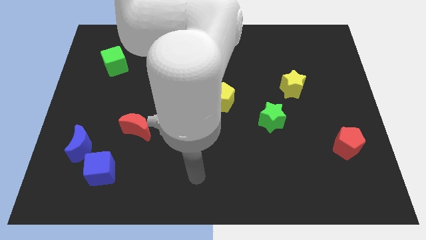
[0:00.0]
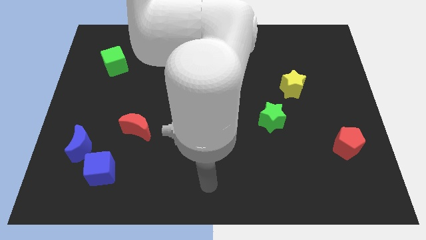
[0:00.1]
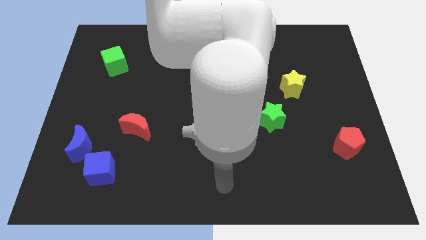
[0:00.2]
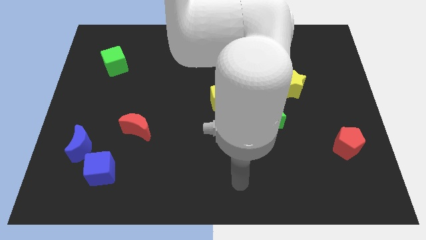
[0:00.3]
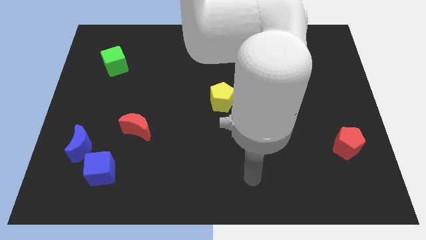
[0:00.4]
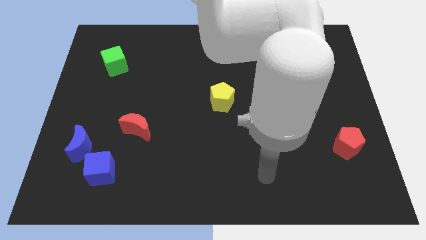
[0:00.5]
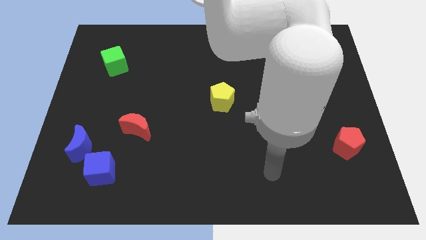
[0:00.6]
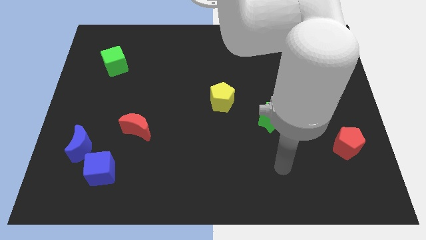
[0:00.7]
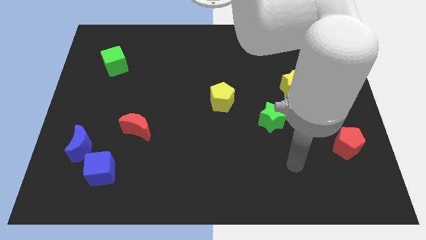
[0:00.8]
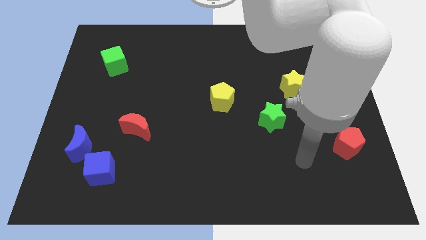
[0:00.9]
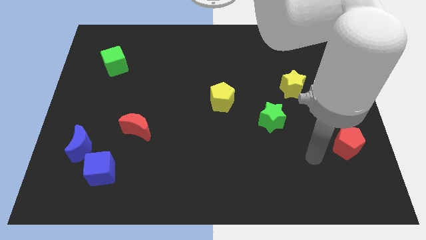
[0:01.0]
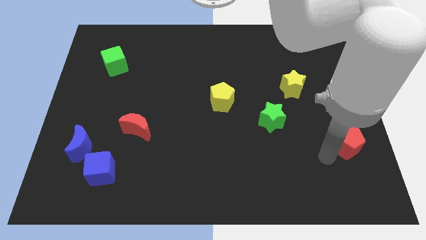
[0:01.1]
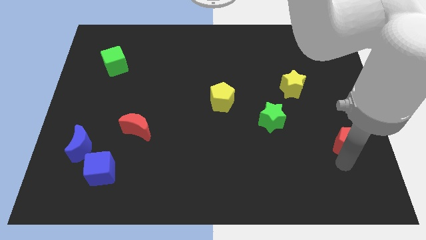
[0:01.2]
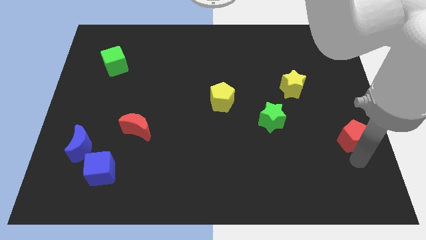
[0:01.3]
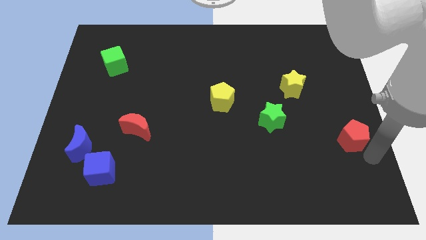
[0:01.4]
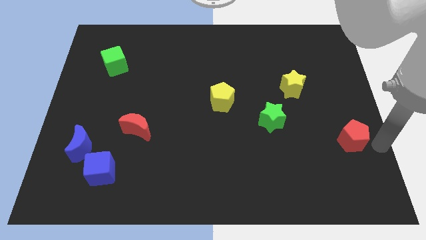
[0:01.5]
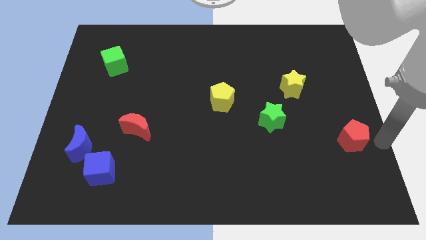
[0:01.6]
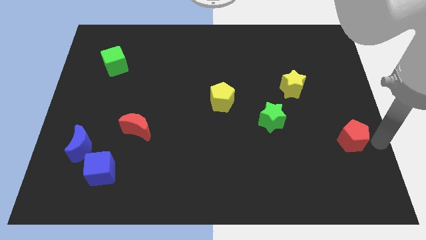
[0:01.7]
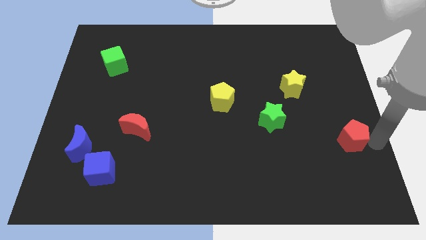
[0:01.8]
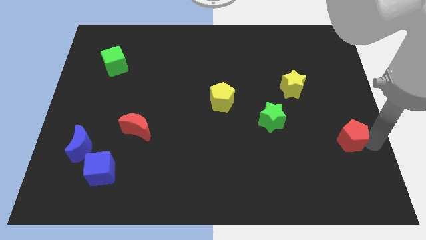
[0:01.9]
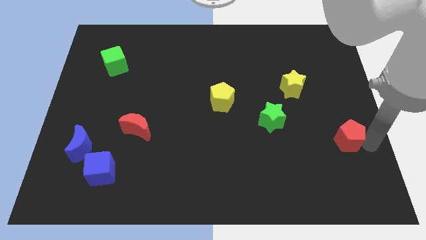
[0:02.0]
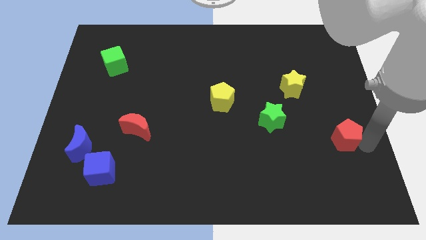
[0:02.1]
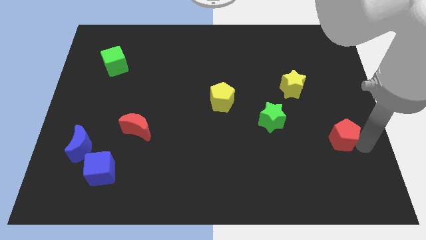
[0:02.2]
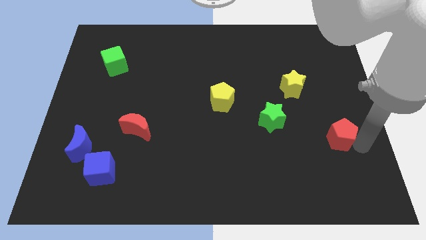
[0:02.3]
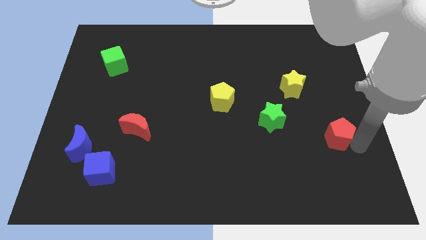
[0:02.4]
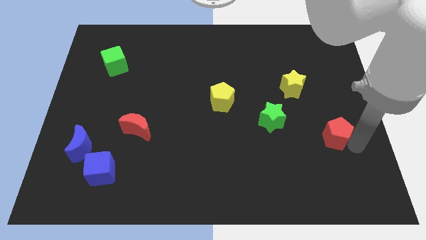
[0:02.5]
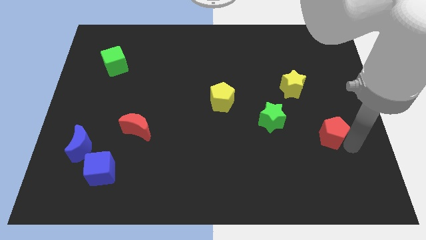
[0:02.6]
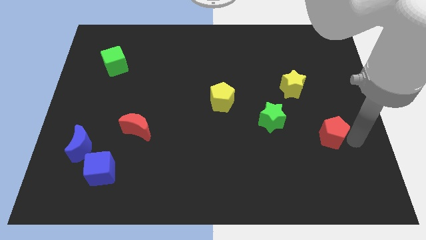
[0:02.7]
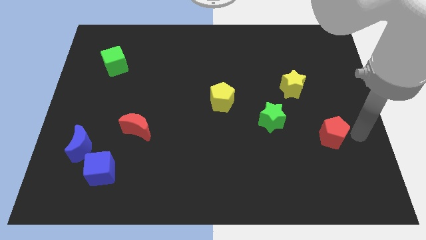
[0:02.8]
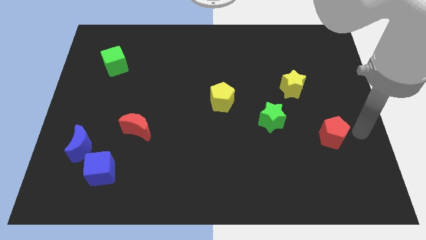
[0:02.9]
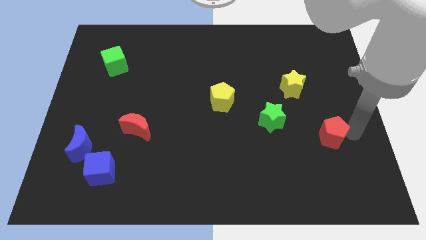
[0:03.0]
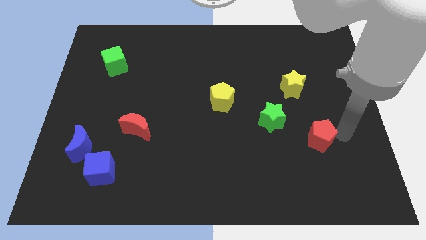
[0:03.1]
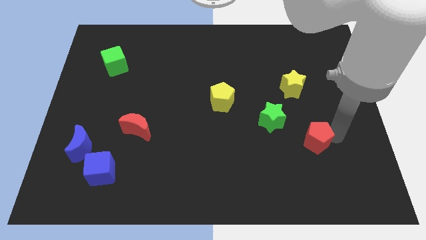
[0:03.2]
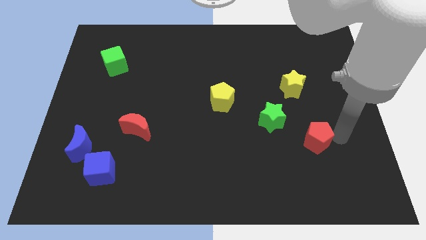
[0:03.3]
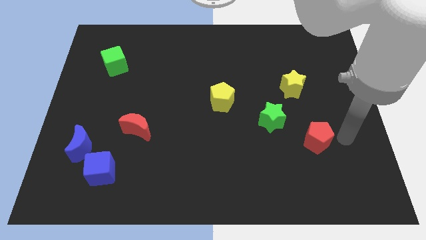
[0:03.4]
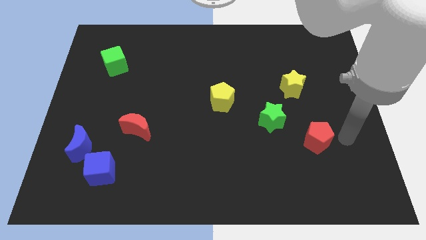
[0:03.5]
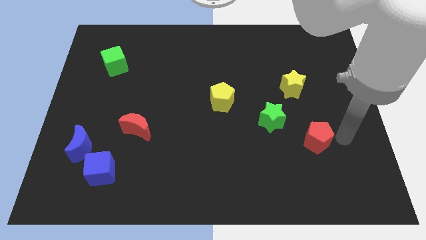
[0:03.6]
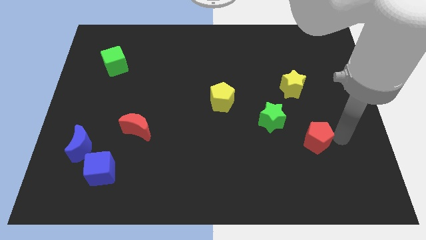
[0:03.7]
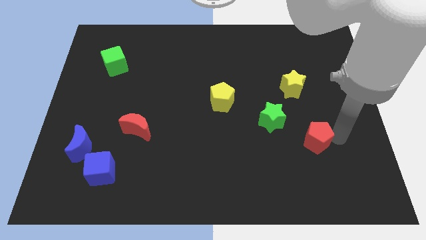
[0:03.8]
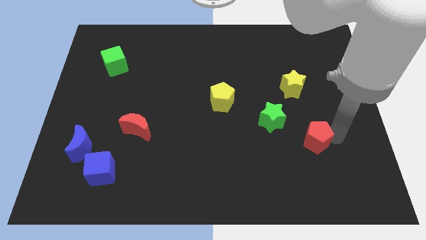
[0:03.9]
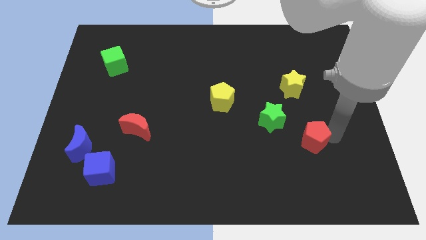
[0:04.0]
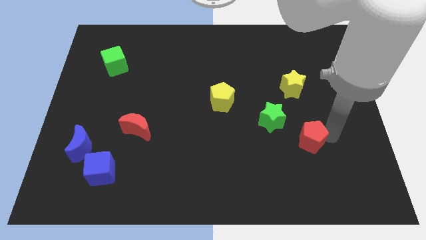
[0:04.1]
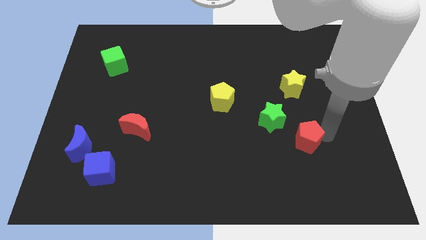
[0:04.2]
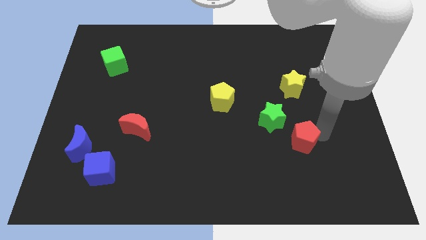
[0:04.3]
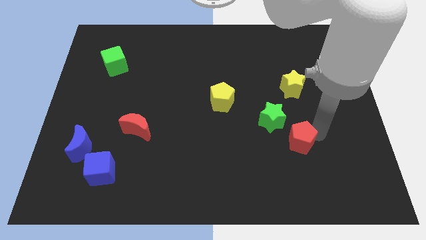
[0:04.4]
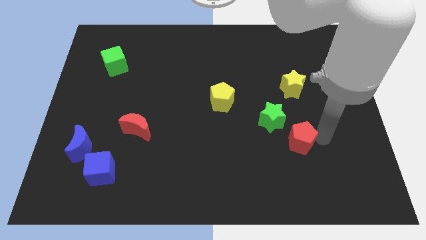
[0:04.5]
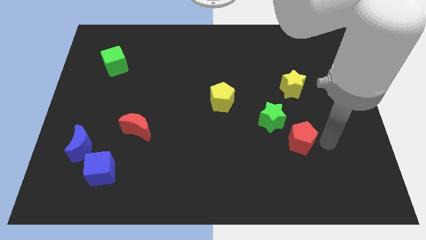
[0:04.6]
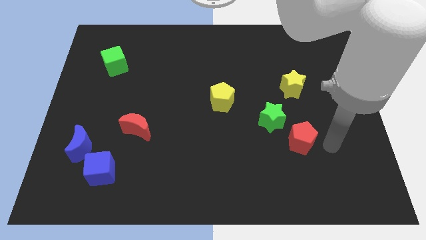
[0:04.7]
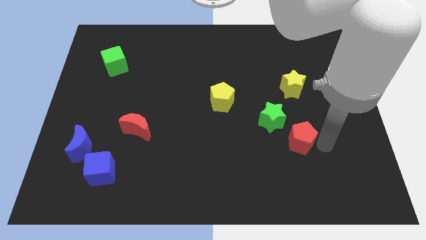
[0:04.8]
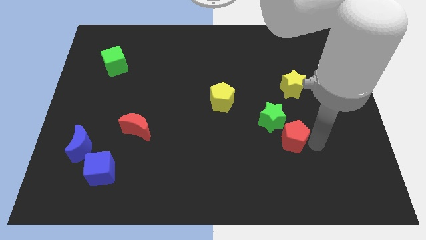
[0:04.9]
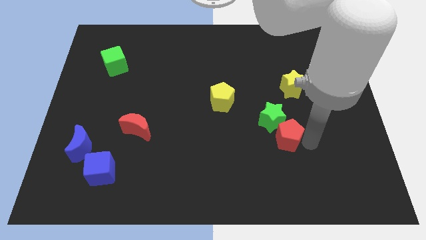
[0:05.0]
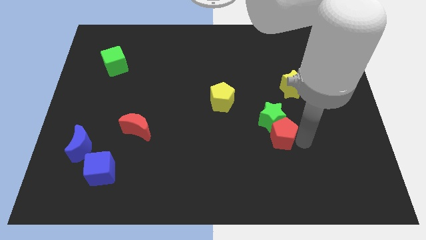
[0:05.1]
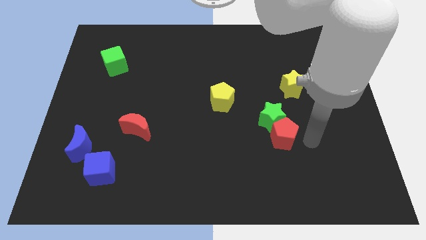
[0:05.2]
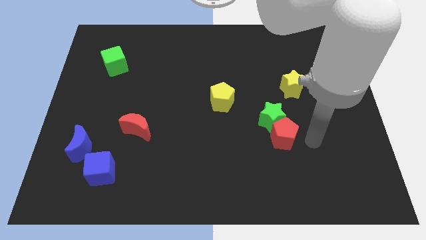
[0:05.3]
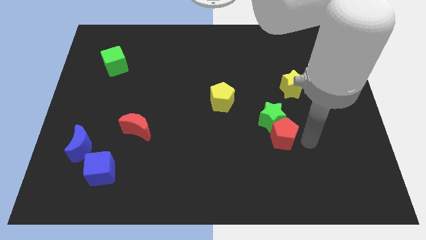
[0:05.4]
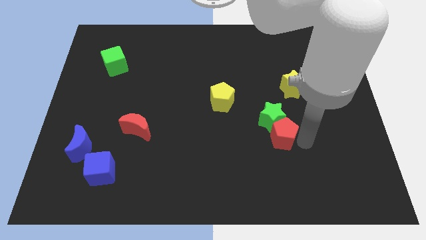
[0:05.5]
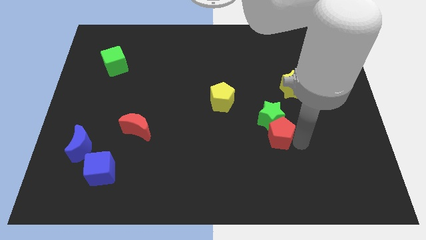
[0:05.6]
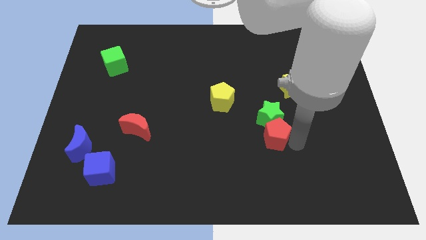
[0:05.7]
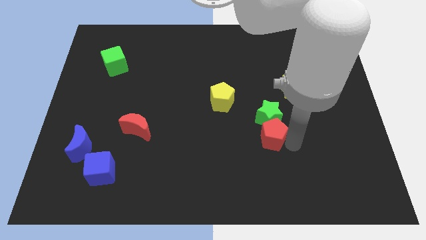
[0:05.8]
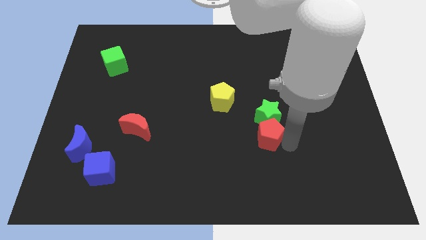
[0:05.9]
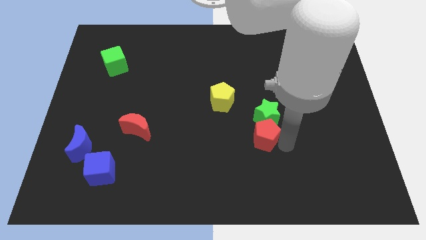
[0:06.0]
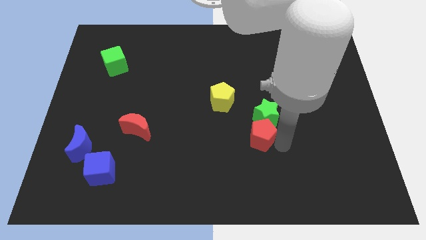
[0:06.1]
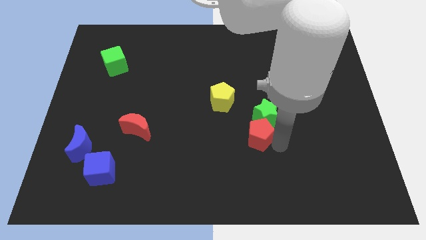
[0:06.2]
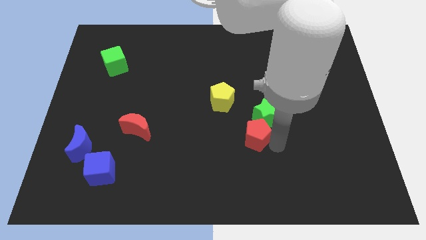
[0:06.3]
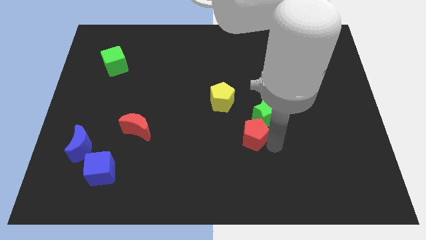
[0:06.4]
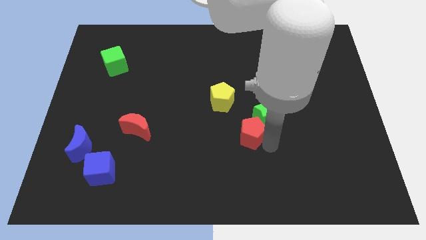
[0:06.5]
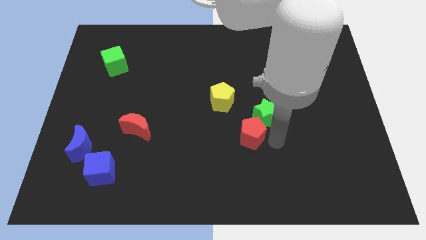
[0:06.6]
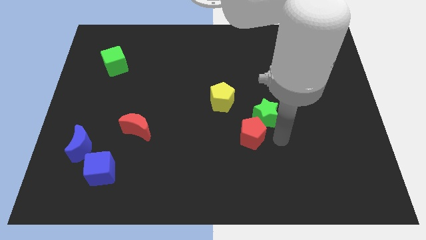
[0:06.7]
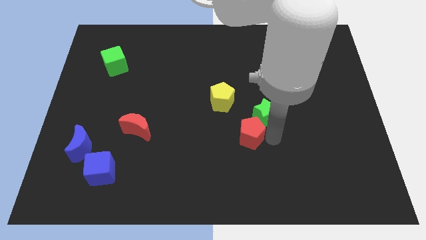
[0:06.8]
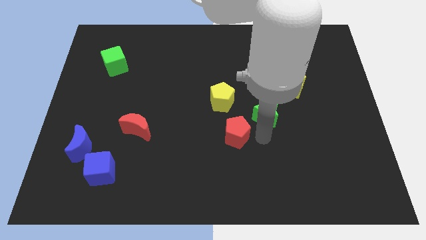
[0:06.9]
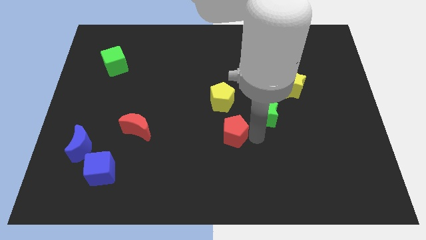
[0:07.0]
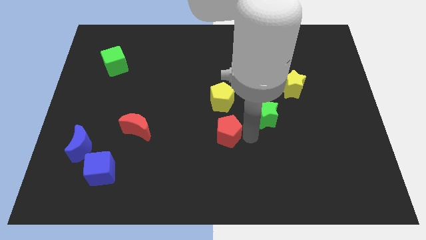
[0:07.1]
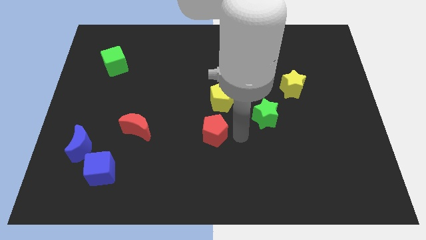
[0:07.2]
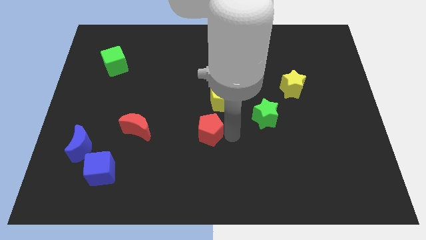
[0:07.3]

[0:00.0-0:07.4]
push the red pentagon to the right side of the red moon
